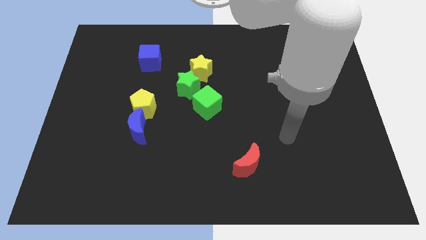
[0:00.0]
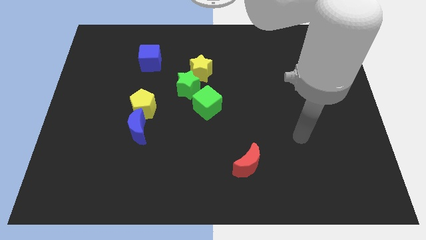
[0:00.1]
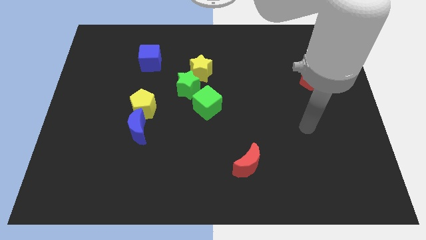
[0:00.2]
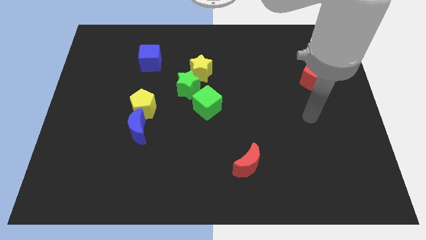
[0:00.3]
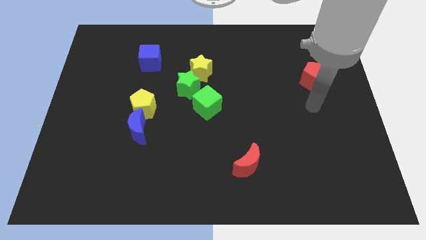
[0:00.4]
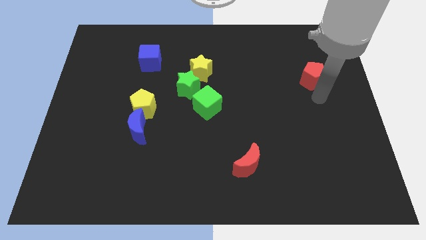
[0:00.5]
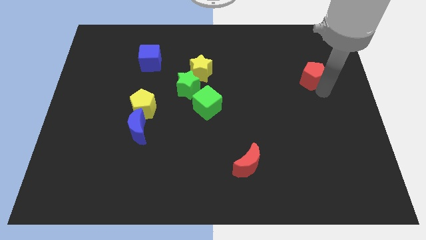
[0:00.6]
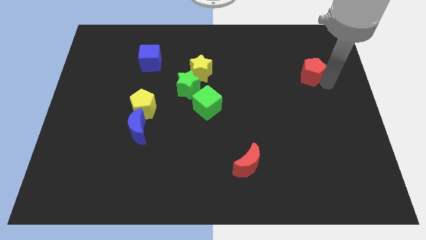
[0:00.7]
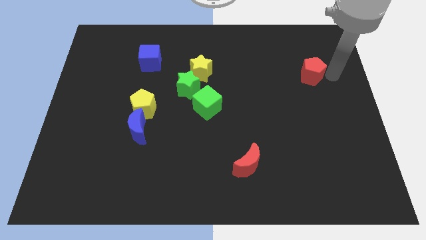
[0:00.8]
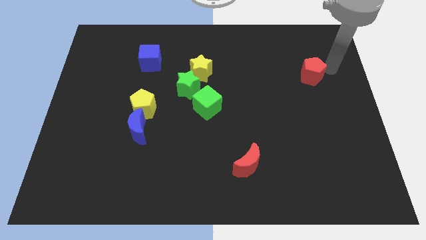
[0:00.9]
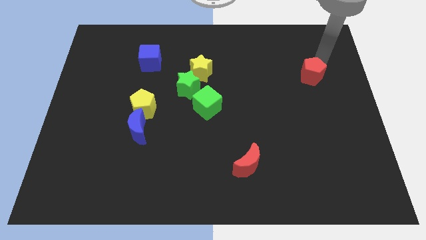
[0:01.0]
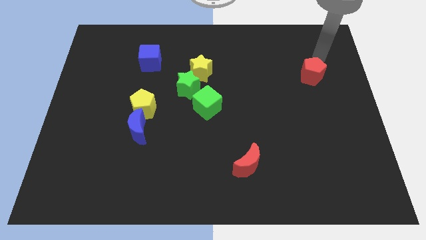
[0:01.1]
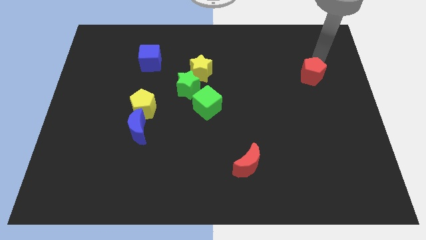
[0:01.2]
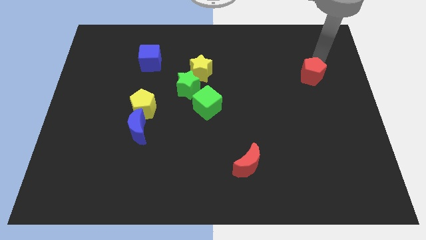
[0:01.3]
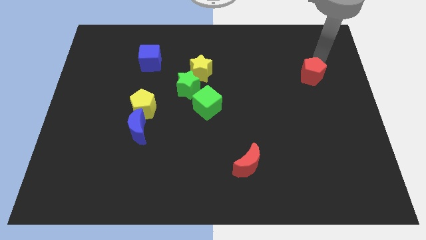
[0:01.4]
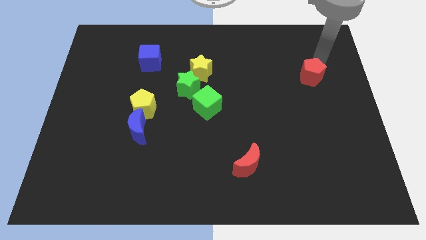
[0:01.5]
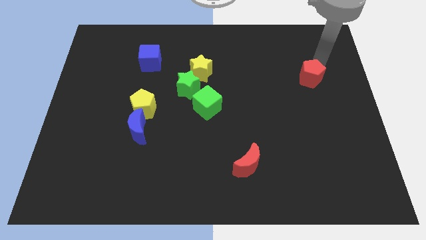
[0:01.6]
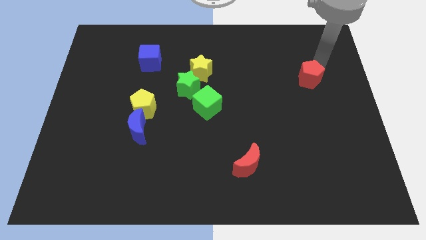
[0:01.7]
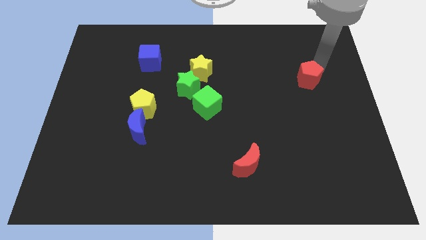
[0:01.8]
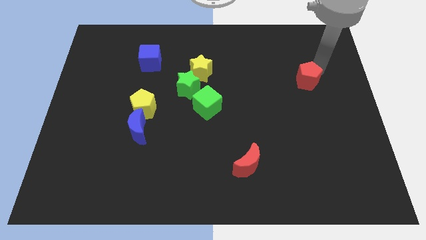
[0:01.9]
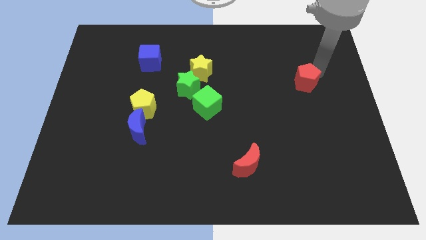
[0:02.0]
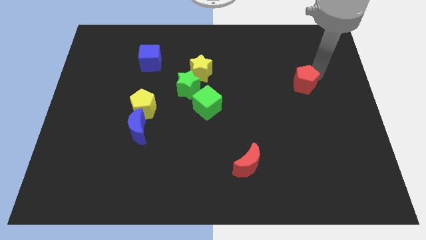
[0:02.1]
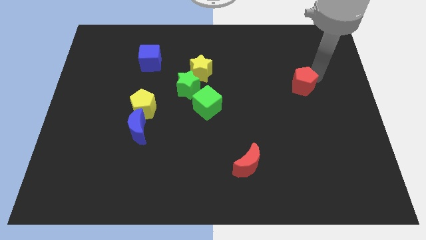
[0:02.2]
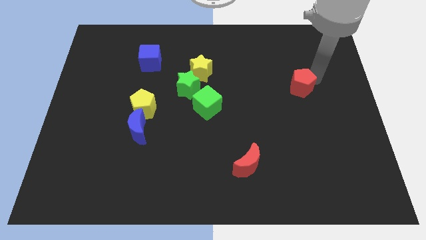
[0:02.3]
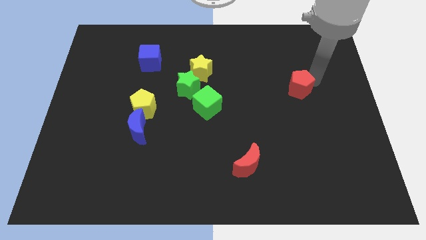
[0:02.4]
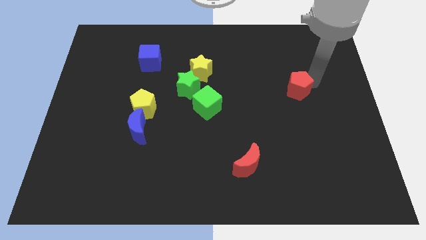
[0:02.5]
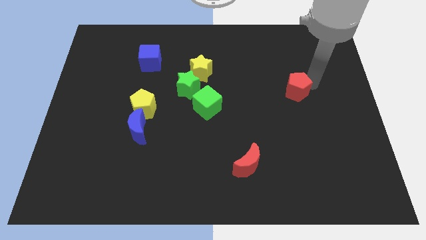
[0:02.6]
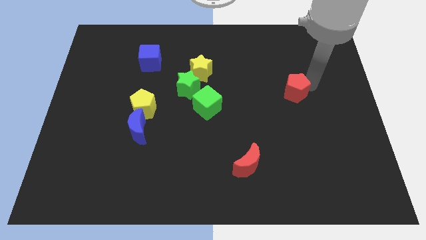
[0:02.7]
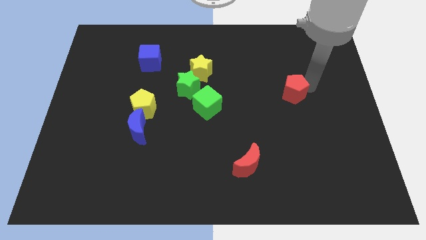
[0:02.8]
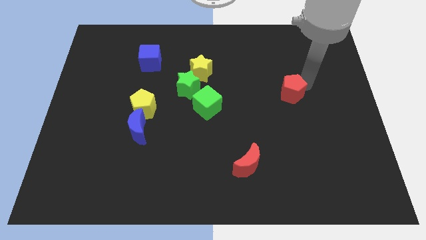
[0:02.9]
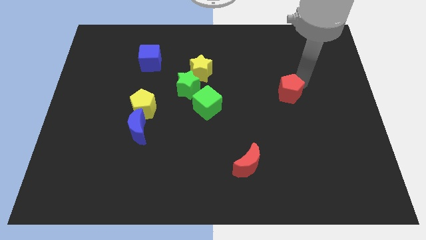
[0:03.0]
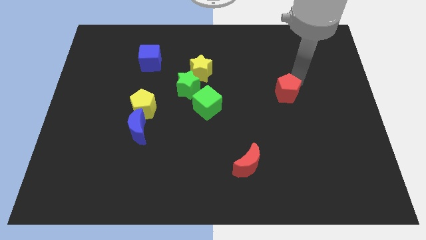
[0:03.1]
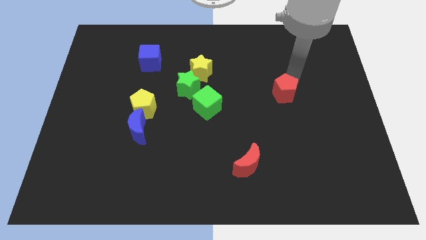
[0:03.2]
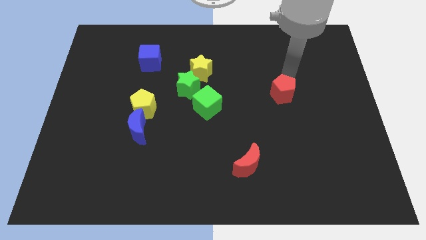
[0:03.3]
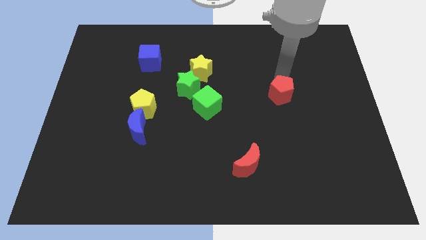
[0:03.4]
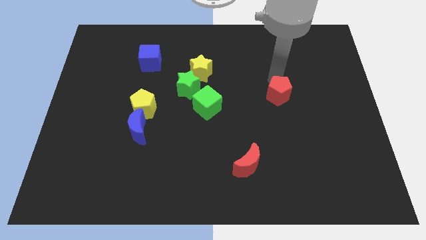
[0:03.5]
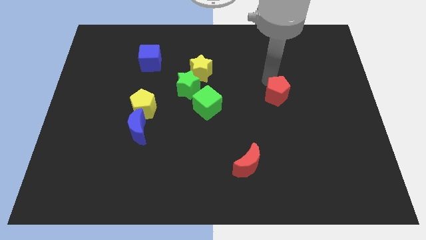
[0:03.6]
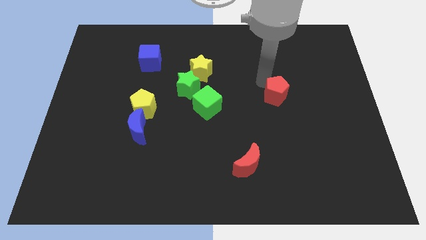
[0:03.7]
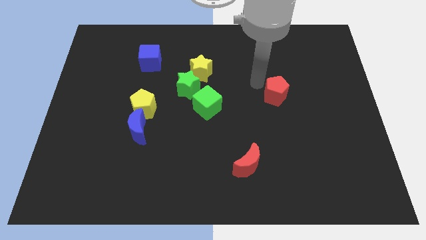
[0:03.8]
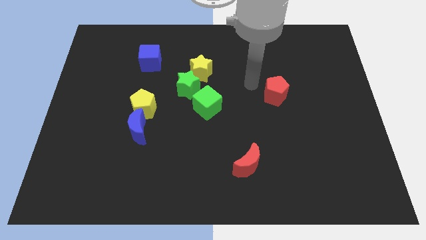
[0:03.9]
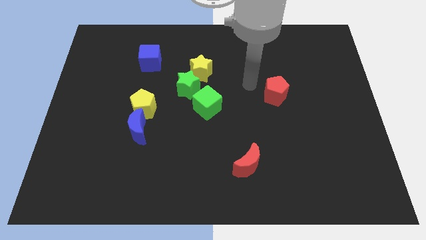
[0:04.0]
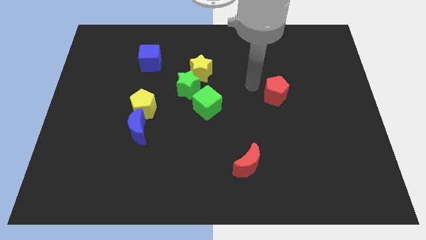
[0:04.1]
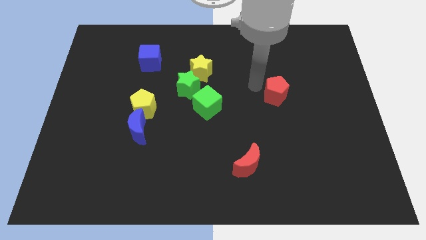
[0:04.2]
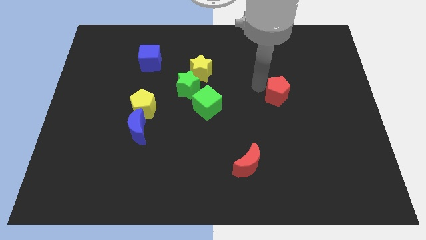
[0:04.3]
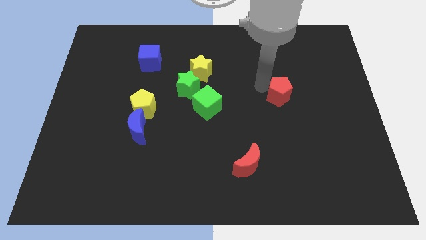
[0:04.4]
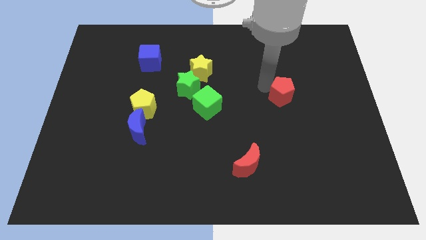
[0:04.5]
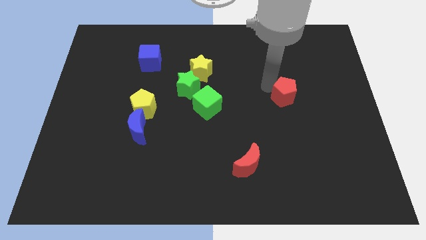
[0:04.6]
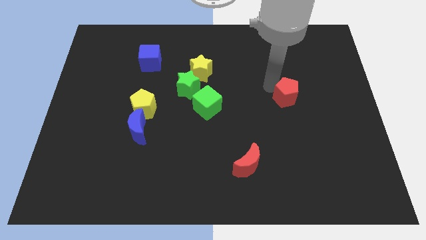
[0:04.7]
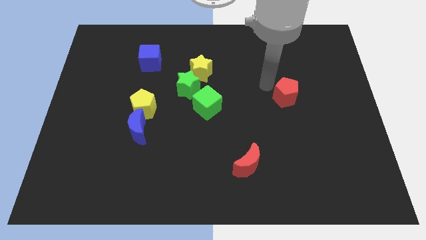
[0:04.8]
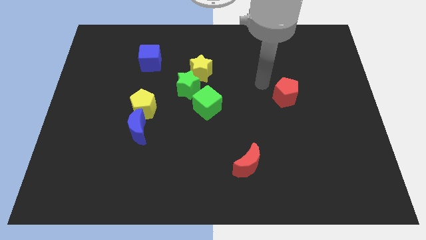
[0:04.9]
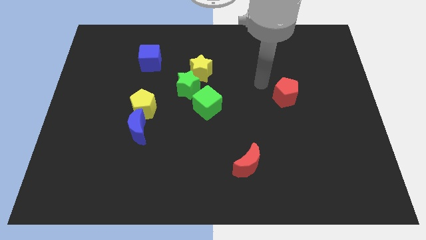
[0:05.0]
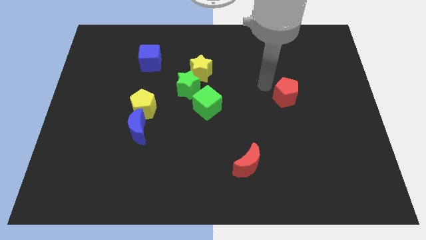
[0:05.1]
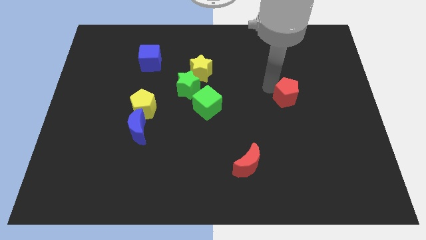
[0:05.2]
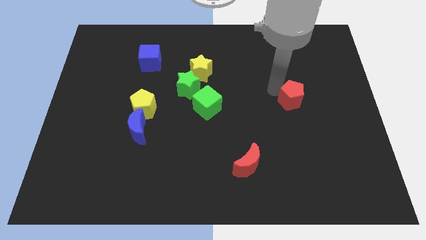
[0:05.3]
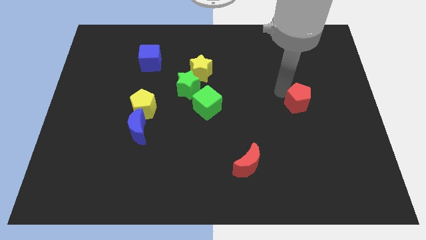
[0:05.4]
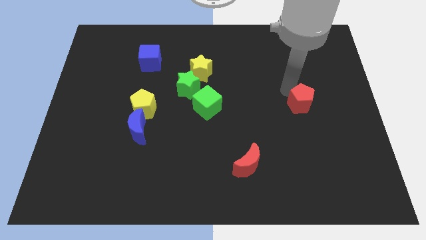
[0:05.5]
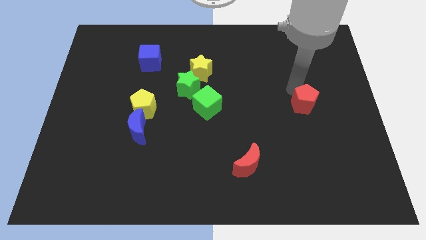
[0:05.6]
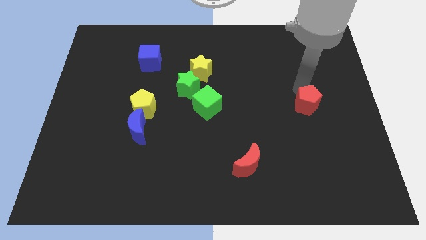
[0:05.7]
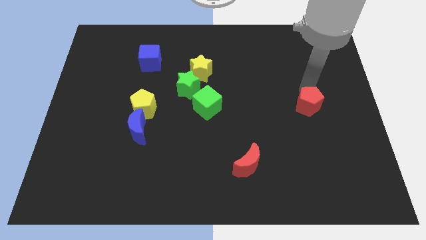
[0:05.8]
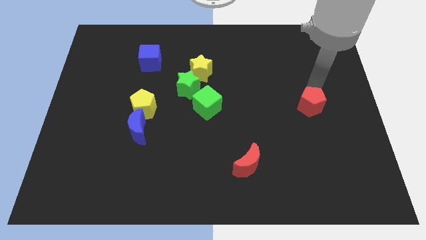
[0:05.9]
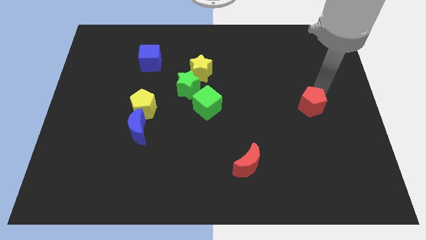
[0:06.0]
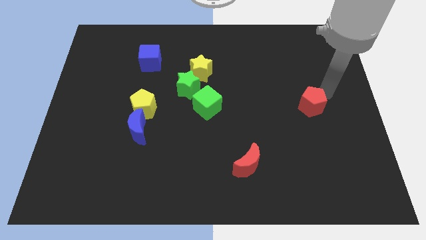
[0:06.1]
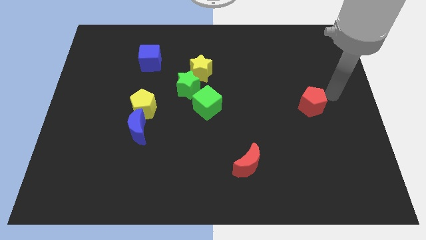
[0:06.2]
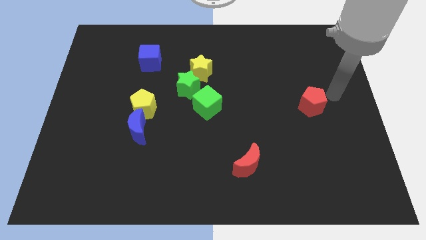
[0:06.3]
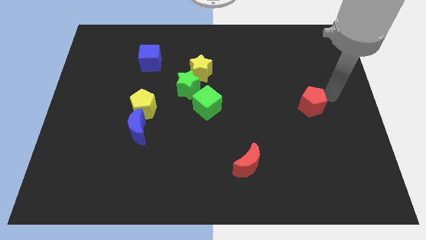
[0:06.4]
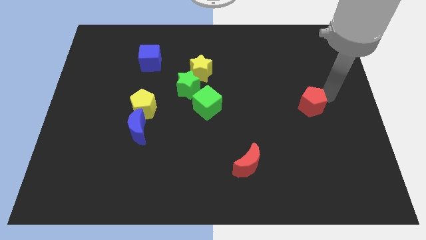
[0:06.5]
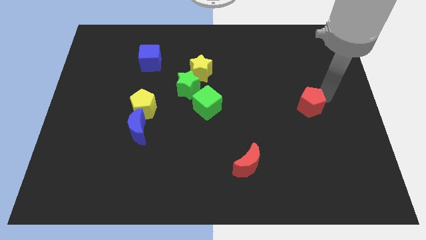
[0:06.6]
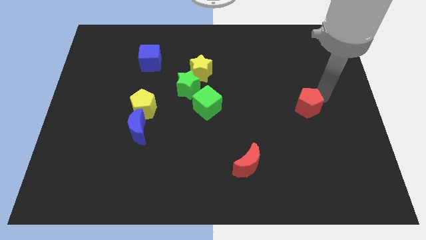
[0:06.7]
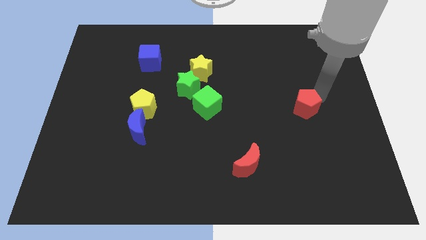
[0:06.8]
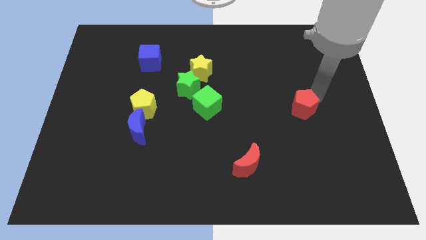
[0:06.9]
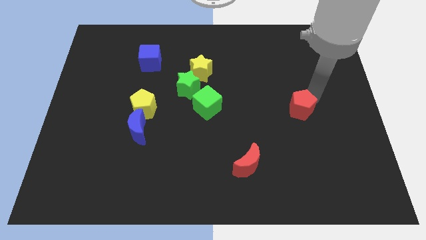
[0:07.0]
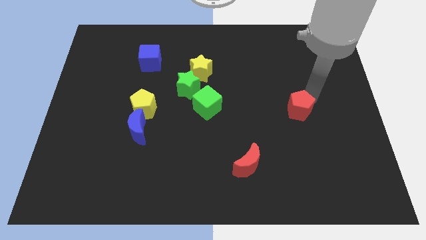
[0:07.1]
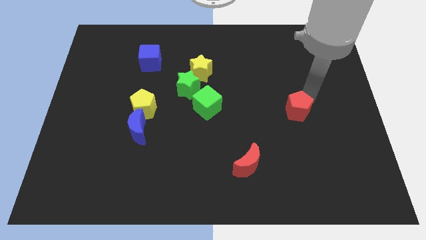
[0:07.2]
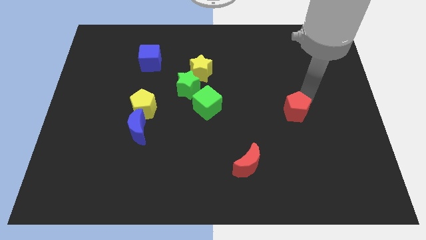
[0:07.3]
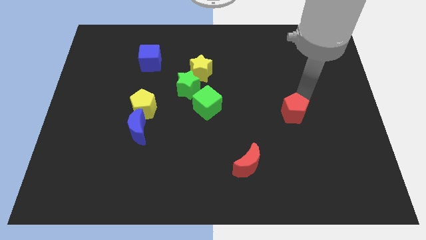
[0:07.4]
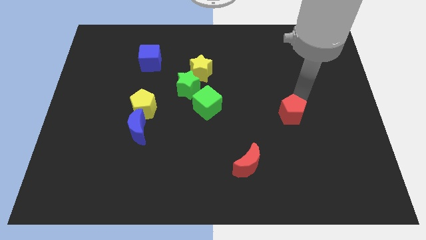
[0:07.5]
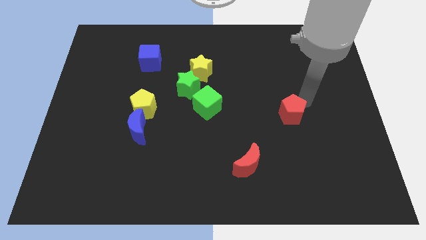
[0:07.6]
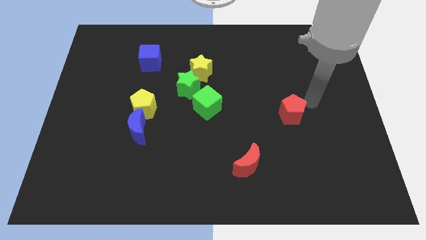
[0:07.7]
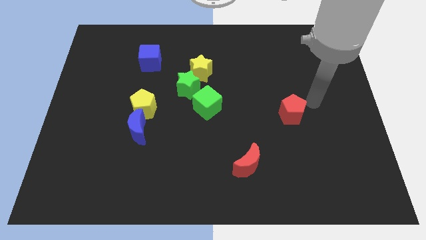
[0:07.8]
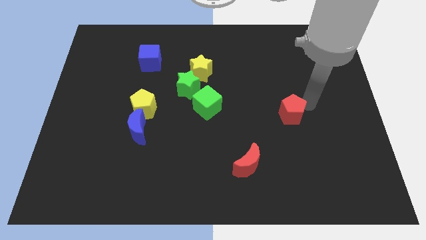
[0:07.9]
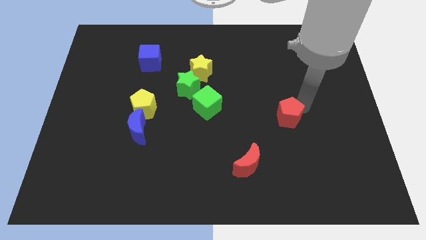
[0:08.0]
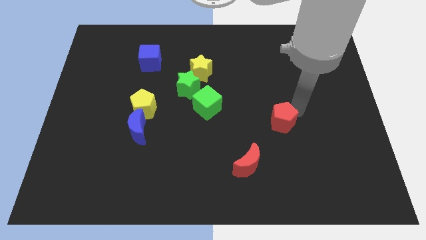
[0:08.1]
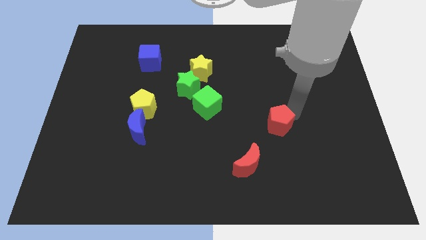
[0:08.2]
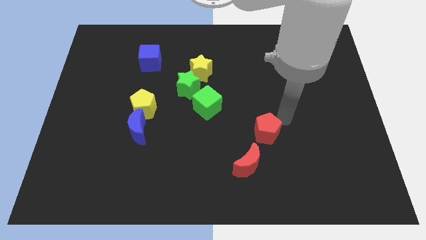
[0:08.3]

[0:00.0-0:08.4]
slide the red pentagon downwards and left diagonally
